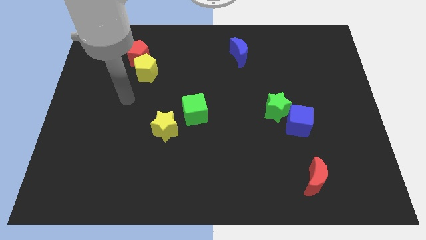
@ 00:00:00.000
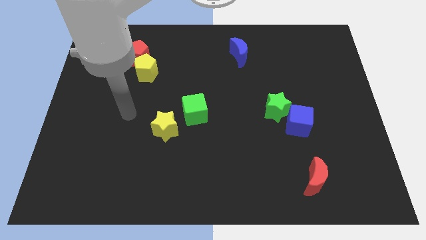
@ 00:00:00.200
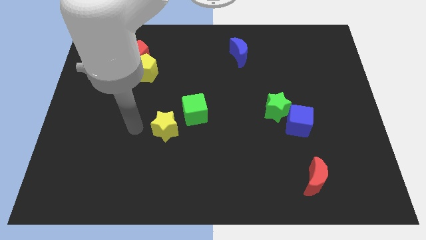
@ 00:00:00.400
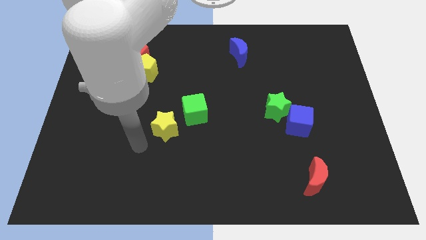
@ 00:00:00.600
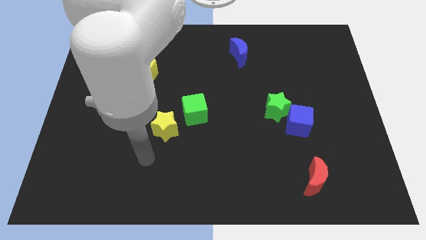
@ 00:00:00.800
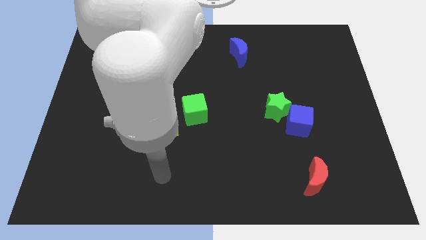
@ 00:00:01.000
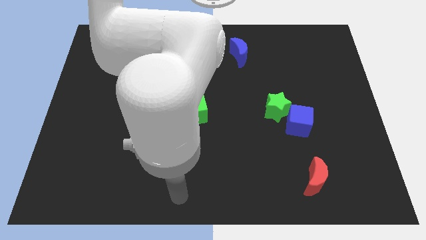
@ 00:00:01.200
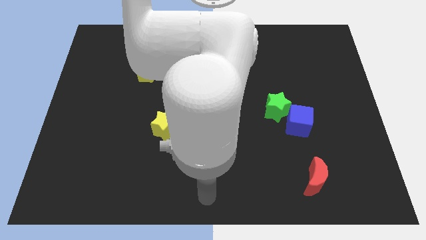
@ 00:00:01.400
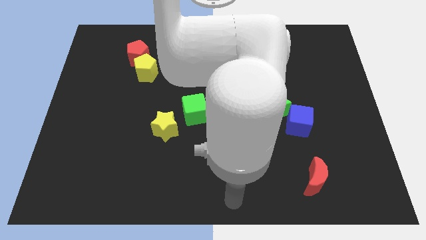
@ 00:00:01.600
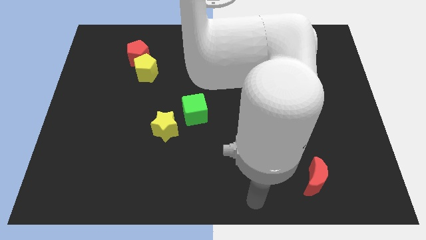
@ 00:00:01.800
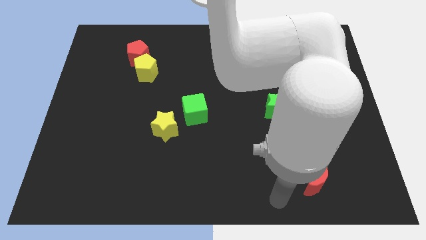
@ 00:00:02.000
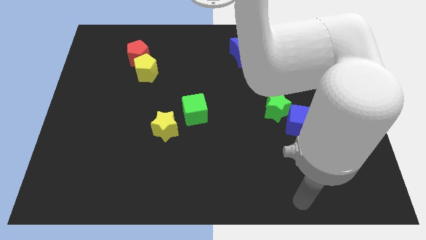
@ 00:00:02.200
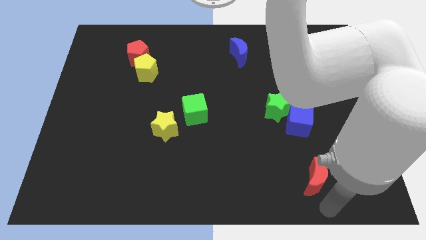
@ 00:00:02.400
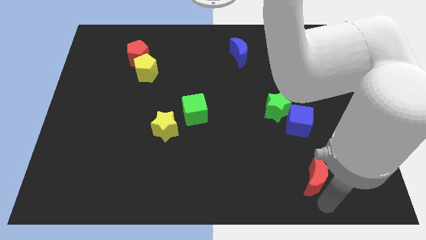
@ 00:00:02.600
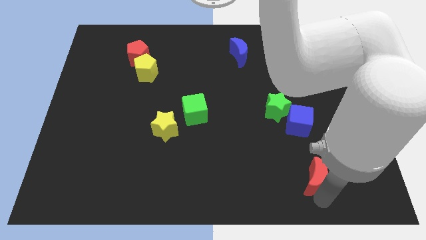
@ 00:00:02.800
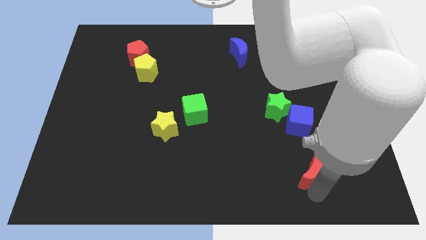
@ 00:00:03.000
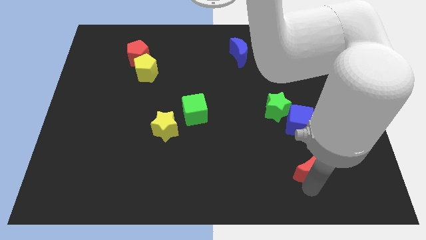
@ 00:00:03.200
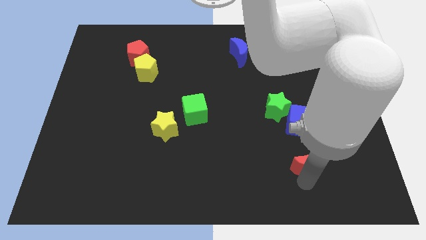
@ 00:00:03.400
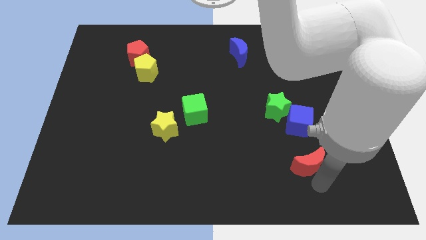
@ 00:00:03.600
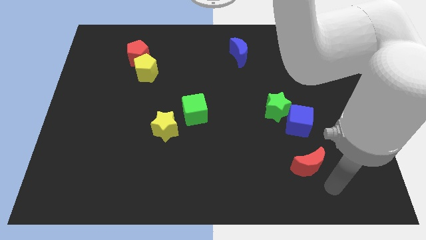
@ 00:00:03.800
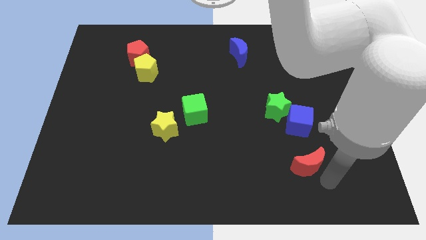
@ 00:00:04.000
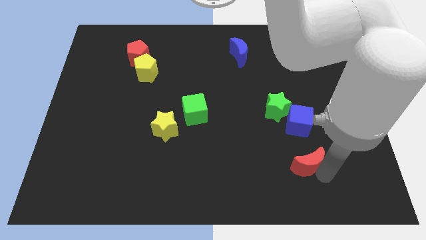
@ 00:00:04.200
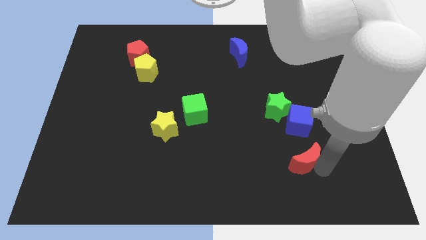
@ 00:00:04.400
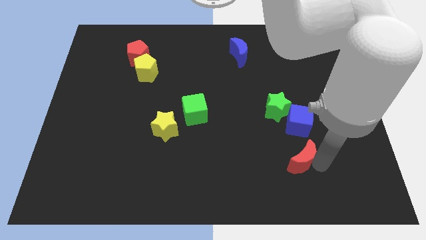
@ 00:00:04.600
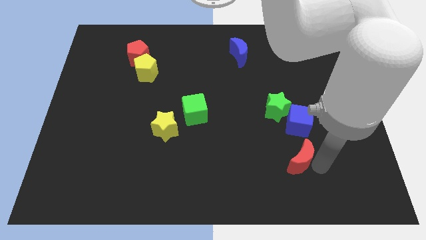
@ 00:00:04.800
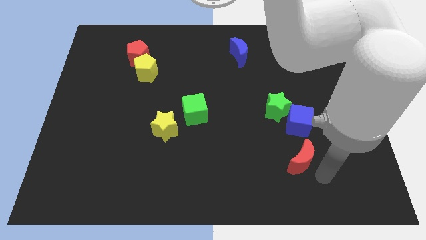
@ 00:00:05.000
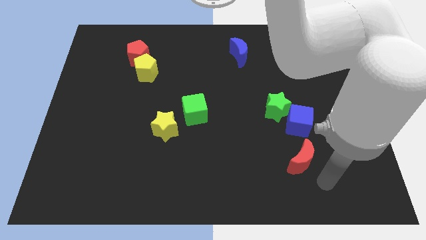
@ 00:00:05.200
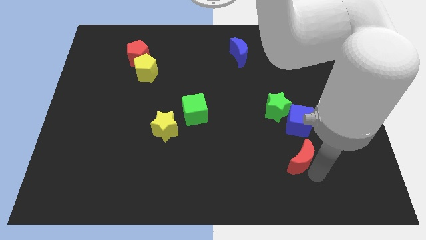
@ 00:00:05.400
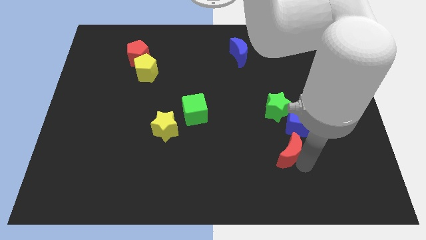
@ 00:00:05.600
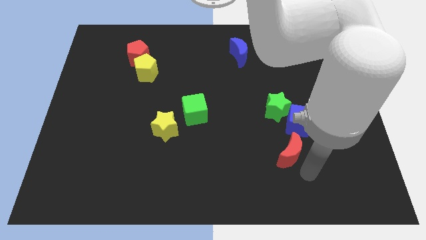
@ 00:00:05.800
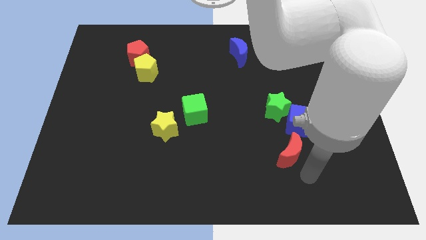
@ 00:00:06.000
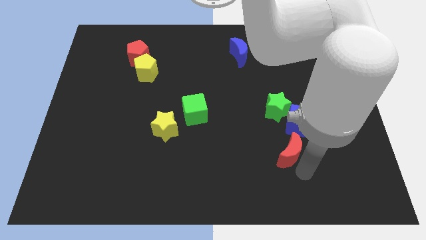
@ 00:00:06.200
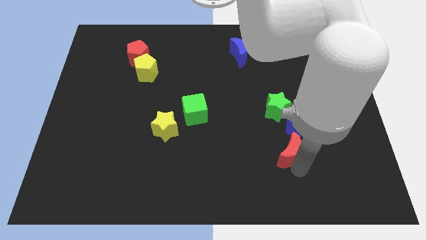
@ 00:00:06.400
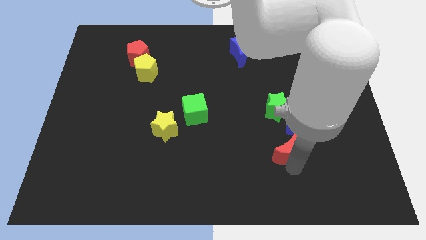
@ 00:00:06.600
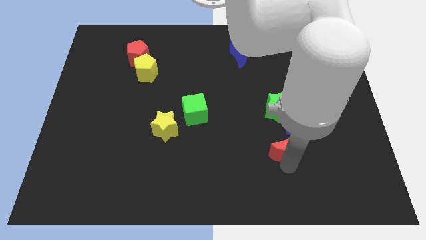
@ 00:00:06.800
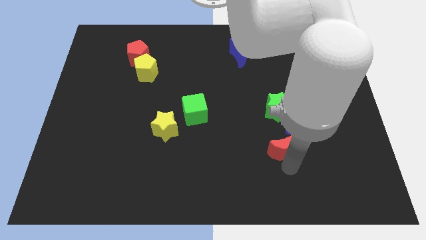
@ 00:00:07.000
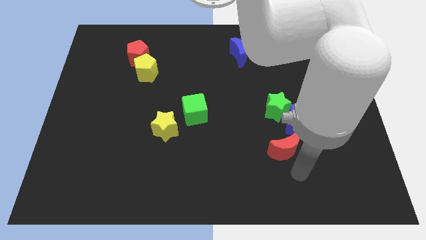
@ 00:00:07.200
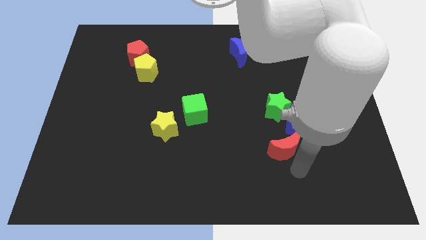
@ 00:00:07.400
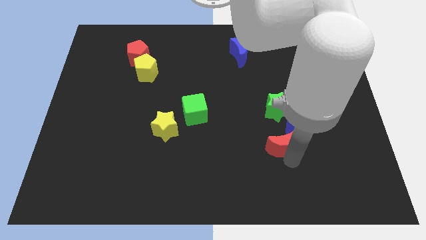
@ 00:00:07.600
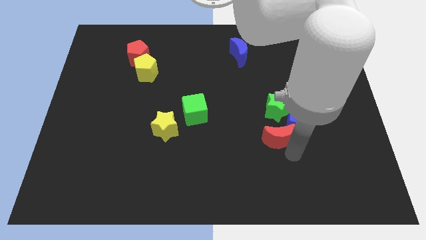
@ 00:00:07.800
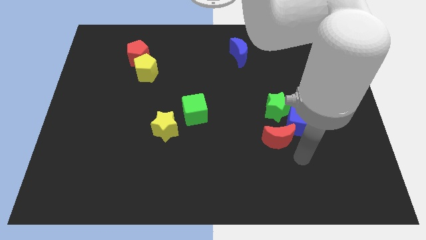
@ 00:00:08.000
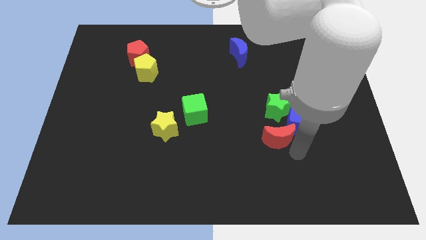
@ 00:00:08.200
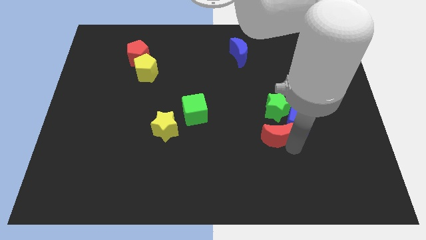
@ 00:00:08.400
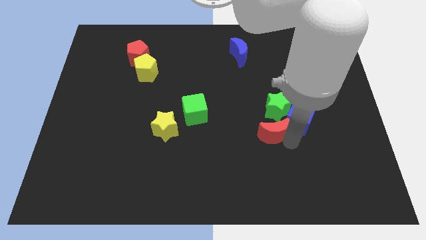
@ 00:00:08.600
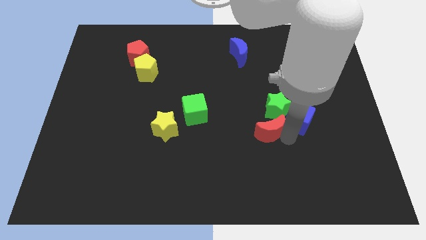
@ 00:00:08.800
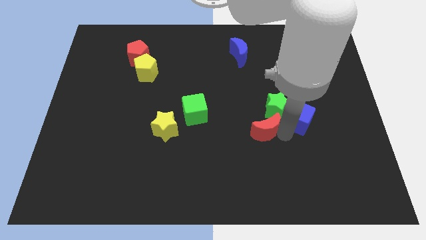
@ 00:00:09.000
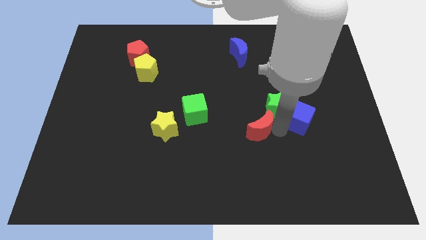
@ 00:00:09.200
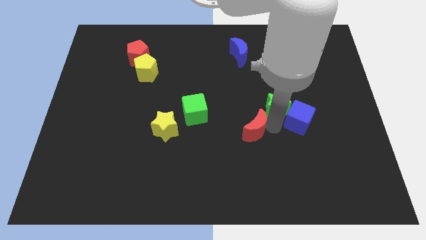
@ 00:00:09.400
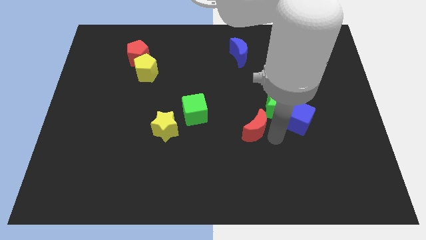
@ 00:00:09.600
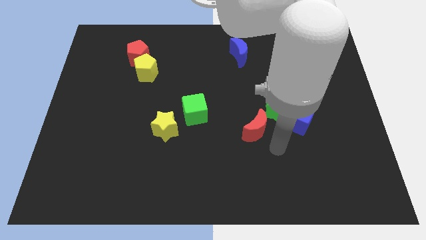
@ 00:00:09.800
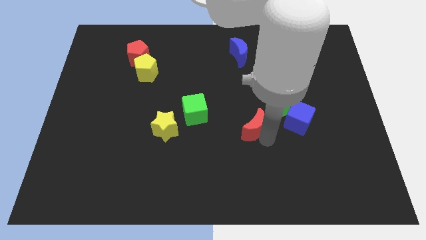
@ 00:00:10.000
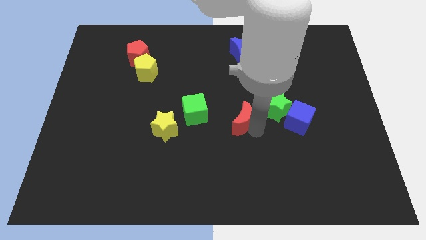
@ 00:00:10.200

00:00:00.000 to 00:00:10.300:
move the red moon upwards and left diagonally

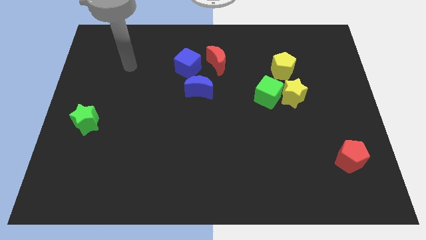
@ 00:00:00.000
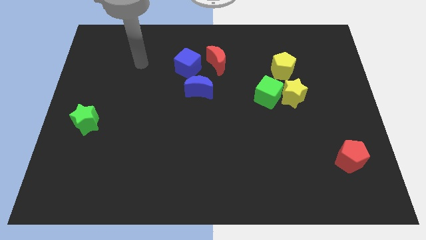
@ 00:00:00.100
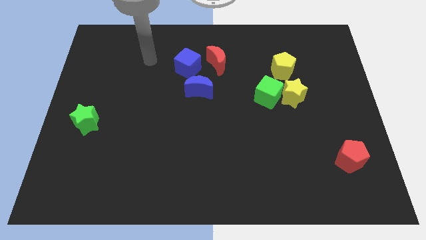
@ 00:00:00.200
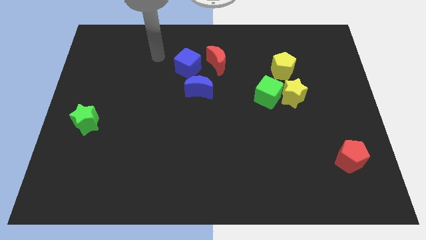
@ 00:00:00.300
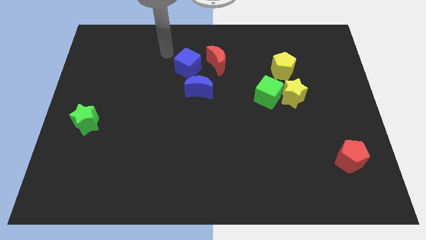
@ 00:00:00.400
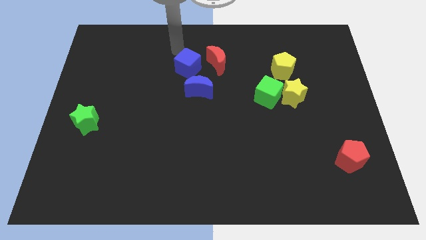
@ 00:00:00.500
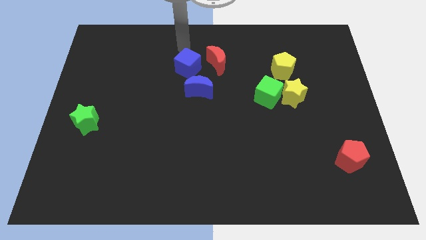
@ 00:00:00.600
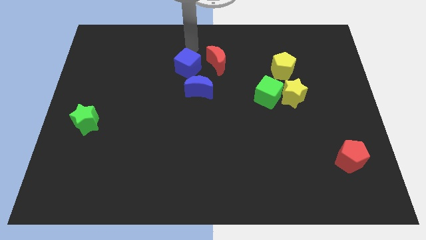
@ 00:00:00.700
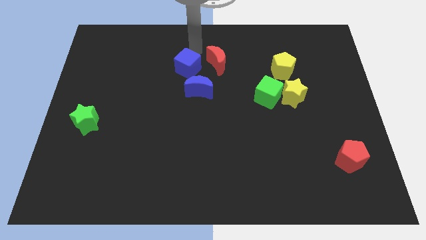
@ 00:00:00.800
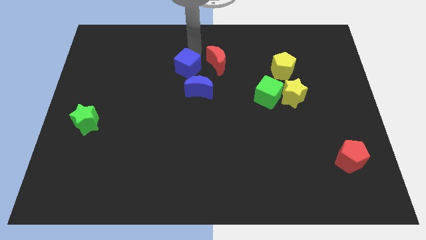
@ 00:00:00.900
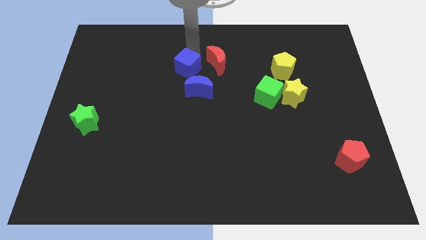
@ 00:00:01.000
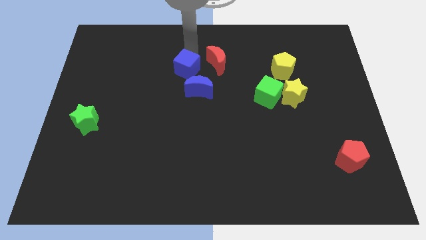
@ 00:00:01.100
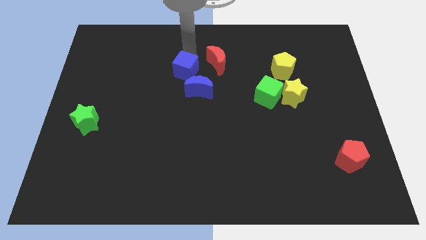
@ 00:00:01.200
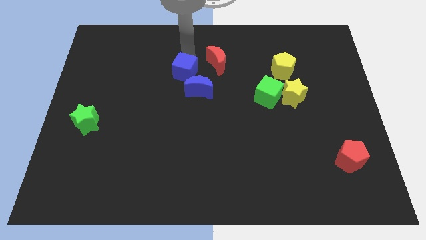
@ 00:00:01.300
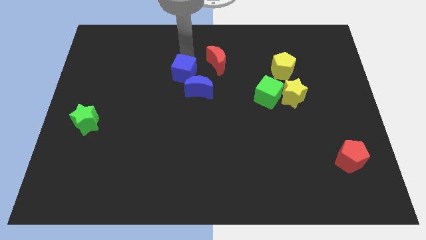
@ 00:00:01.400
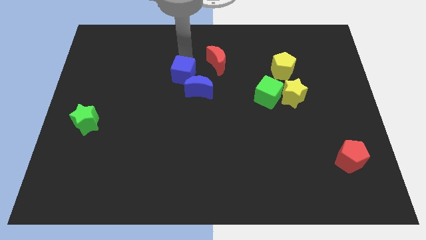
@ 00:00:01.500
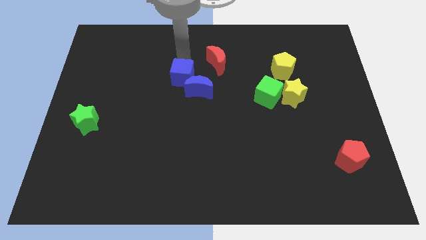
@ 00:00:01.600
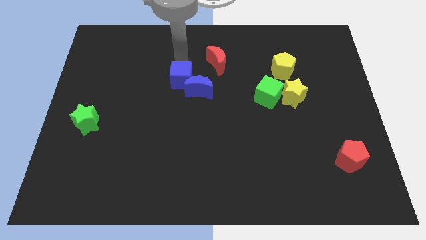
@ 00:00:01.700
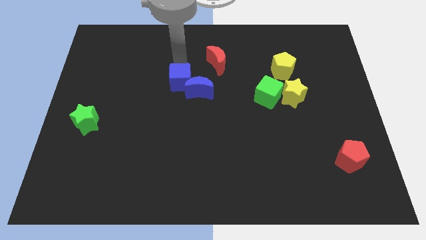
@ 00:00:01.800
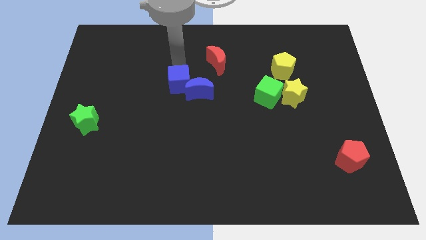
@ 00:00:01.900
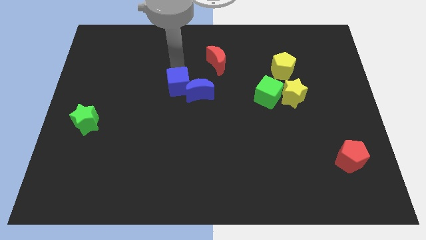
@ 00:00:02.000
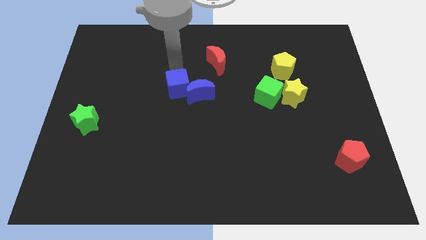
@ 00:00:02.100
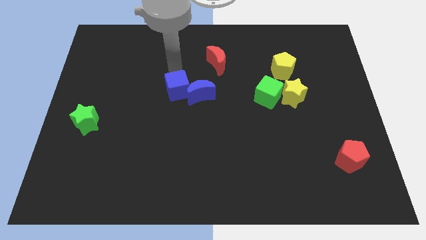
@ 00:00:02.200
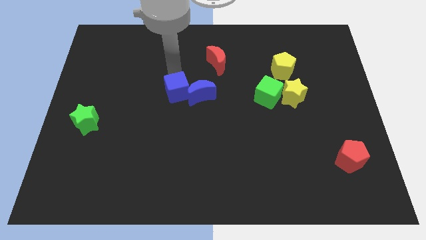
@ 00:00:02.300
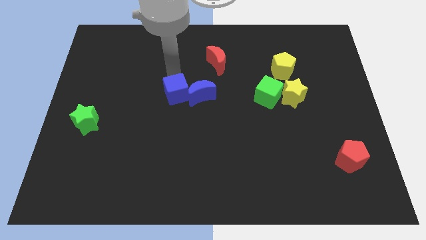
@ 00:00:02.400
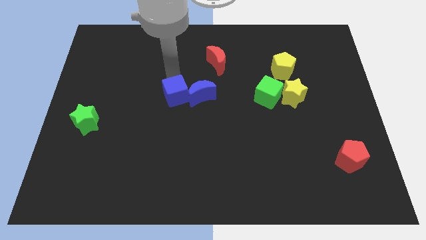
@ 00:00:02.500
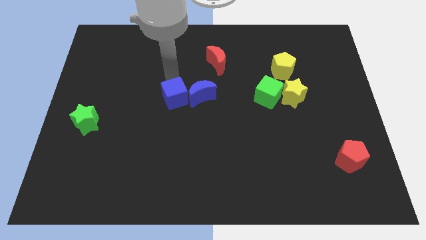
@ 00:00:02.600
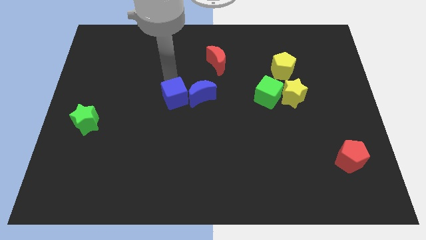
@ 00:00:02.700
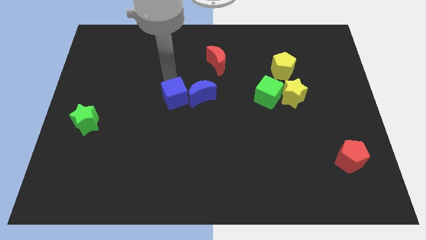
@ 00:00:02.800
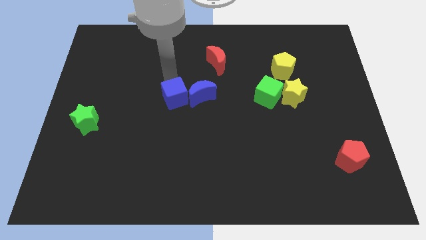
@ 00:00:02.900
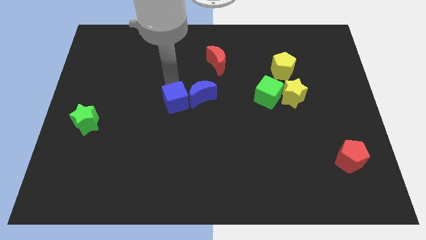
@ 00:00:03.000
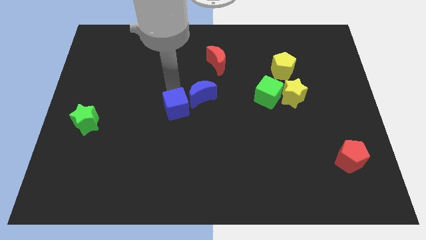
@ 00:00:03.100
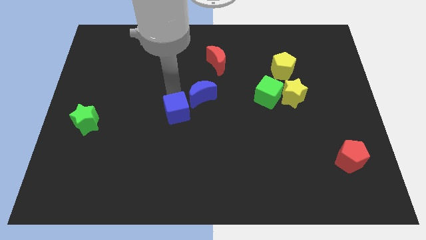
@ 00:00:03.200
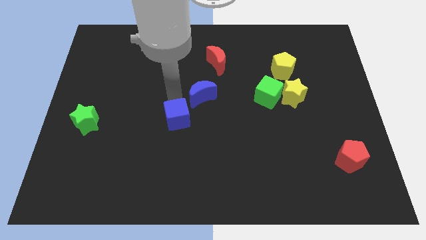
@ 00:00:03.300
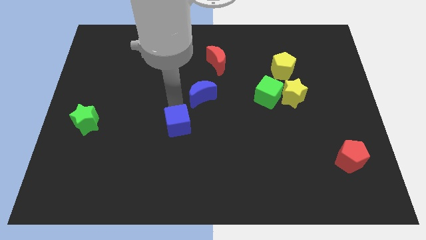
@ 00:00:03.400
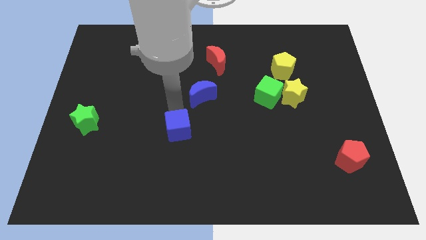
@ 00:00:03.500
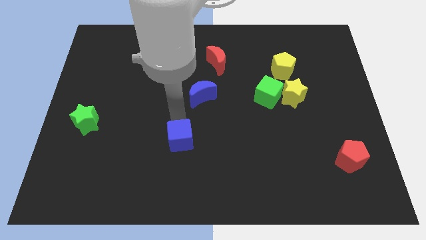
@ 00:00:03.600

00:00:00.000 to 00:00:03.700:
slide the blue cube downwards
